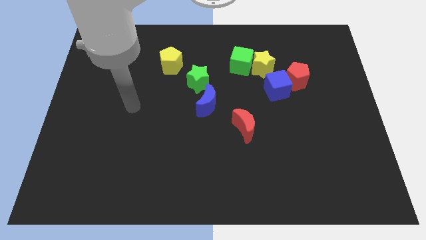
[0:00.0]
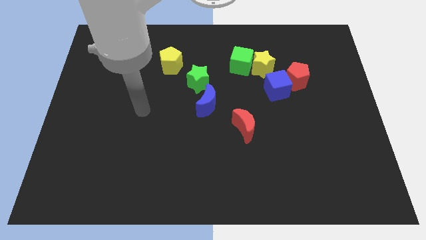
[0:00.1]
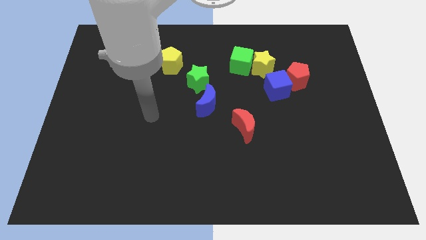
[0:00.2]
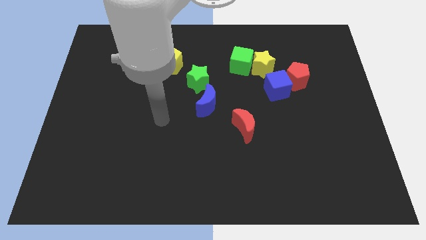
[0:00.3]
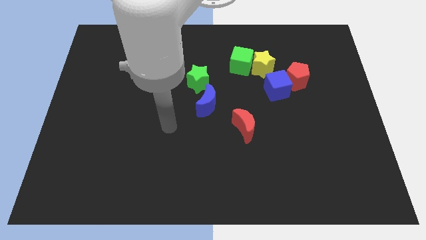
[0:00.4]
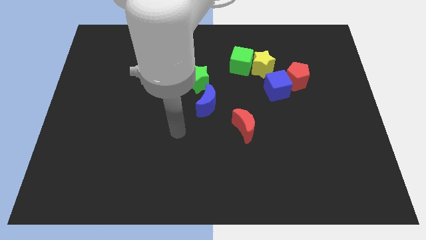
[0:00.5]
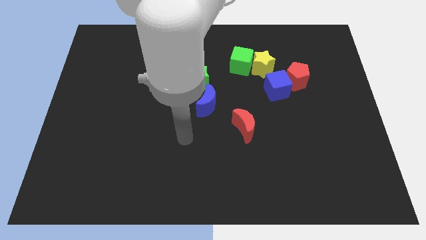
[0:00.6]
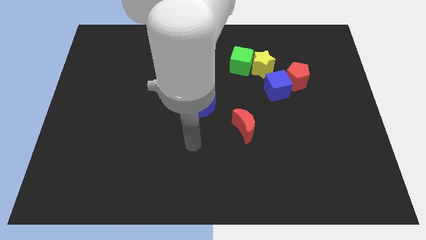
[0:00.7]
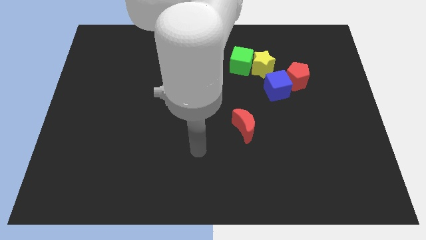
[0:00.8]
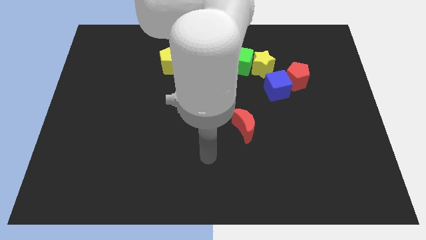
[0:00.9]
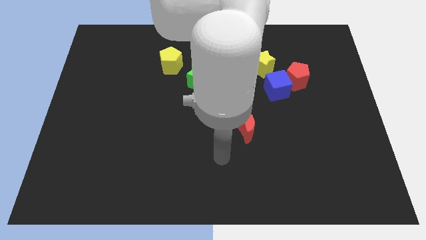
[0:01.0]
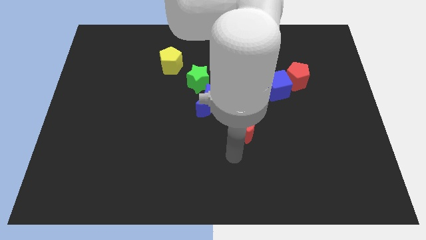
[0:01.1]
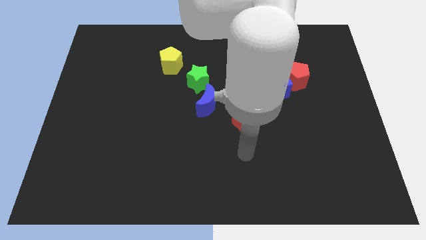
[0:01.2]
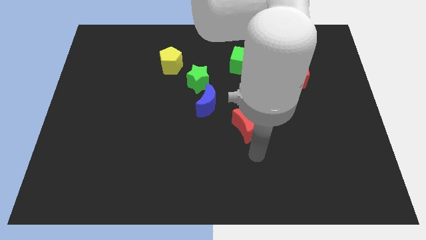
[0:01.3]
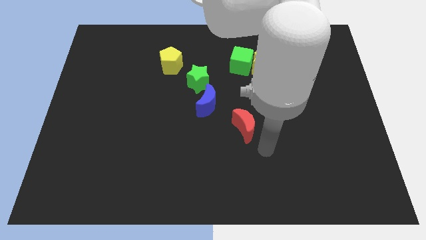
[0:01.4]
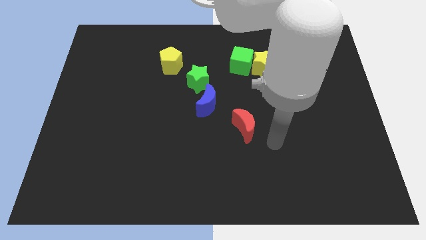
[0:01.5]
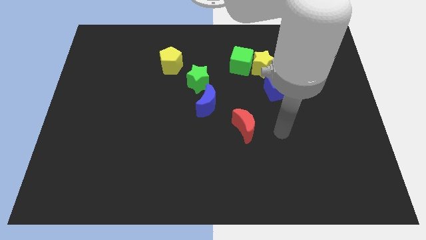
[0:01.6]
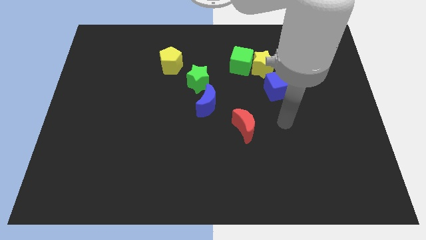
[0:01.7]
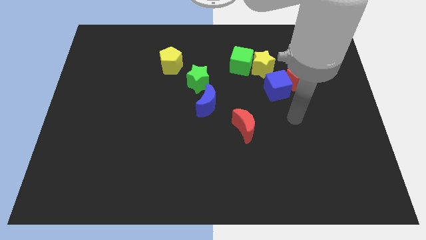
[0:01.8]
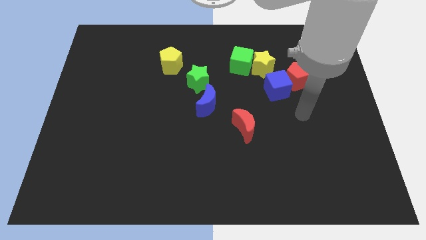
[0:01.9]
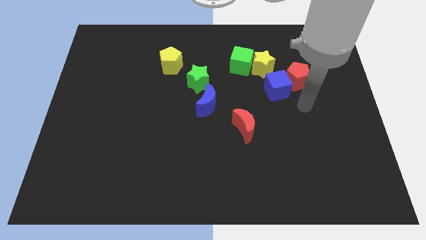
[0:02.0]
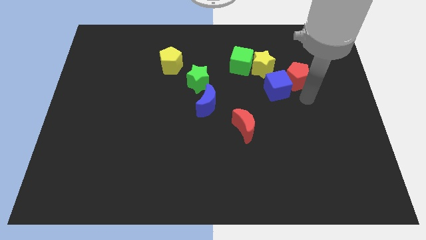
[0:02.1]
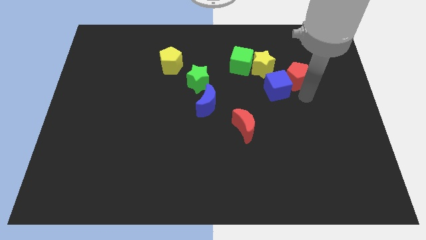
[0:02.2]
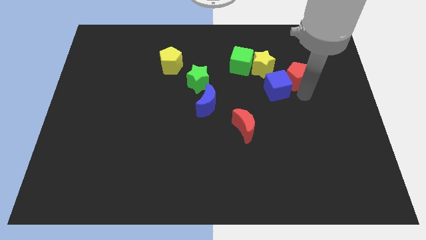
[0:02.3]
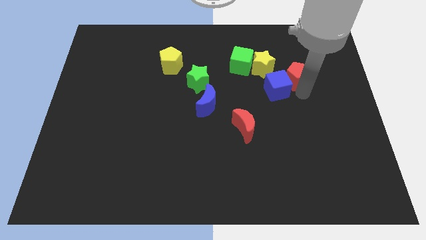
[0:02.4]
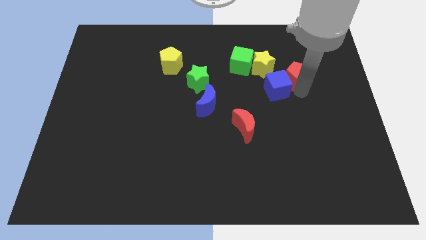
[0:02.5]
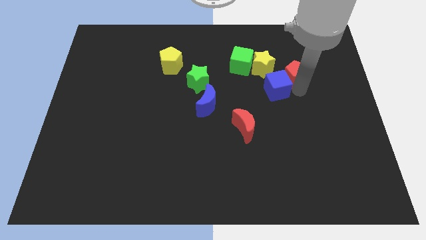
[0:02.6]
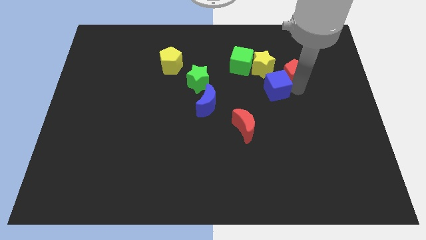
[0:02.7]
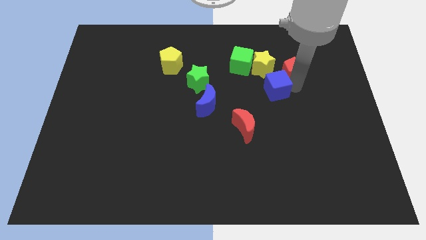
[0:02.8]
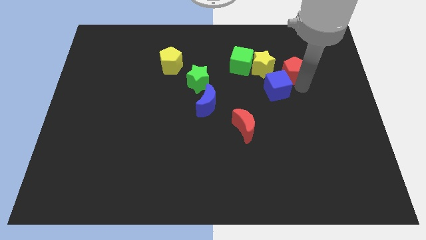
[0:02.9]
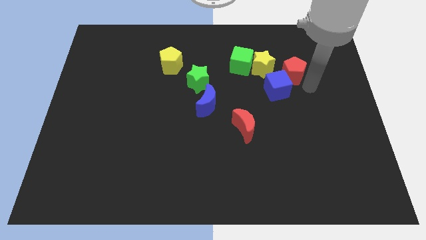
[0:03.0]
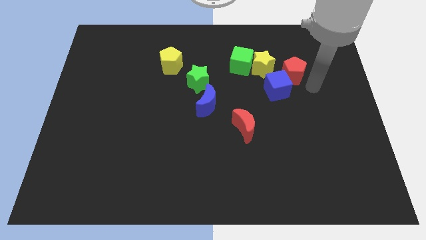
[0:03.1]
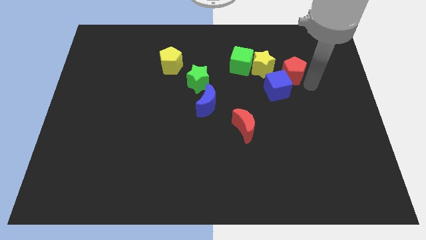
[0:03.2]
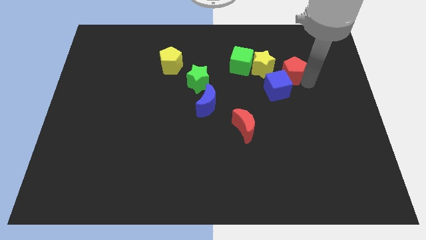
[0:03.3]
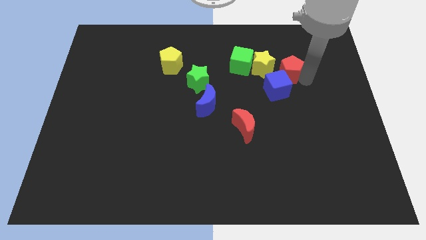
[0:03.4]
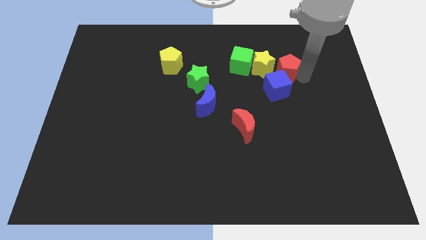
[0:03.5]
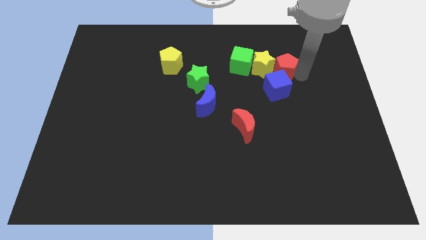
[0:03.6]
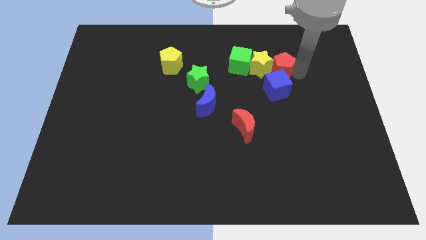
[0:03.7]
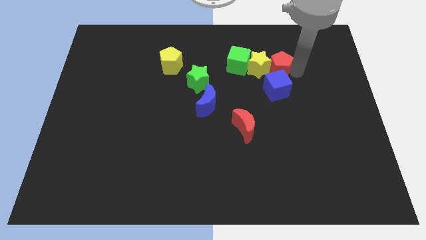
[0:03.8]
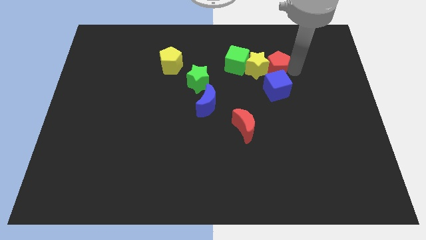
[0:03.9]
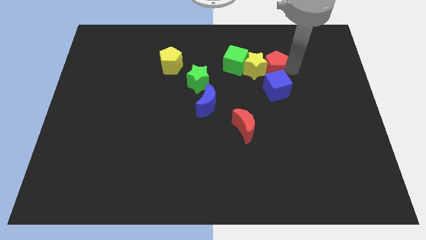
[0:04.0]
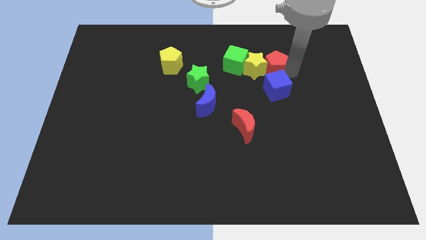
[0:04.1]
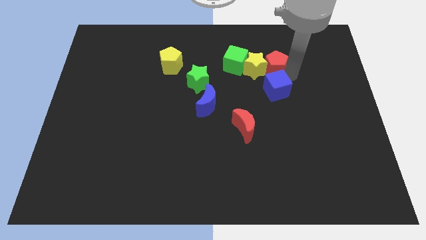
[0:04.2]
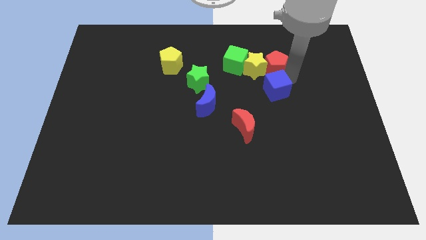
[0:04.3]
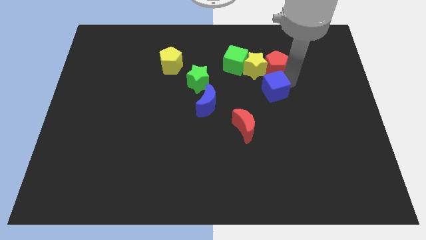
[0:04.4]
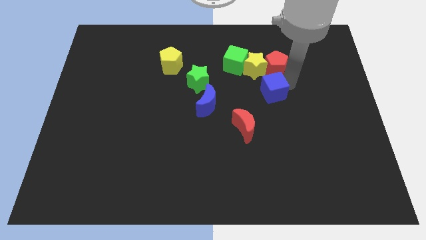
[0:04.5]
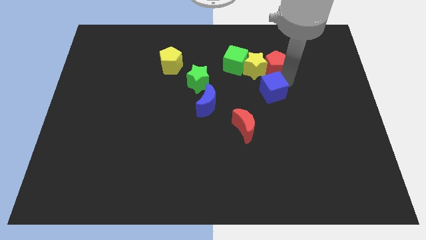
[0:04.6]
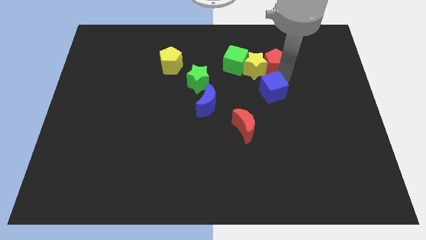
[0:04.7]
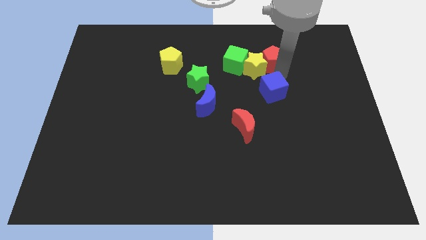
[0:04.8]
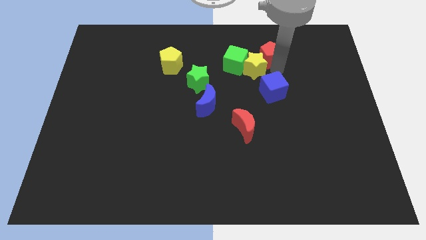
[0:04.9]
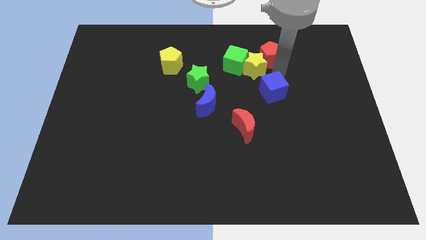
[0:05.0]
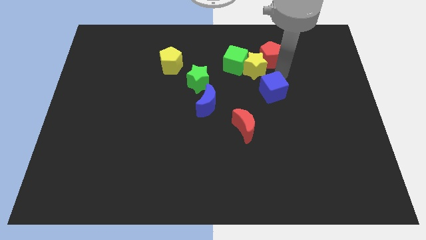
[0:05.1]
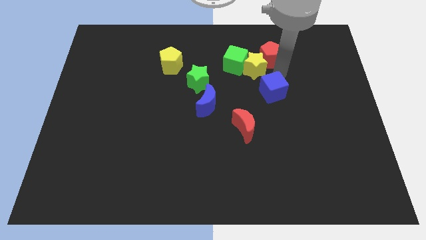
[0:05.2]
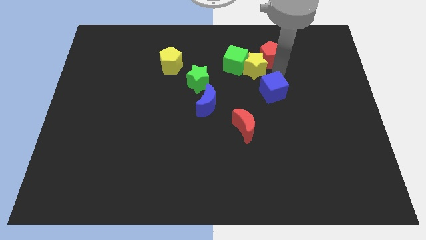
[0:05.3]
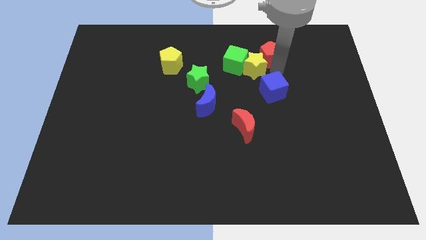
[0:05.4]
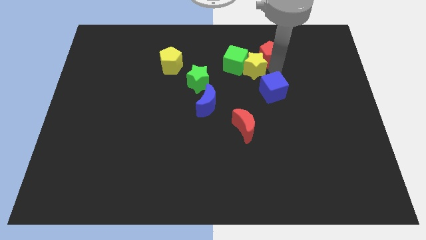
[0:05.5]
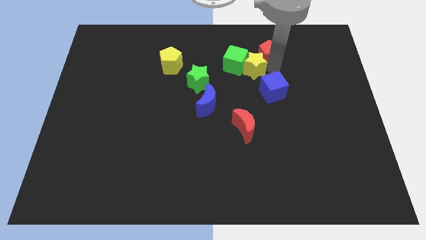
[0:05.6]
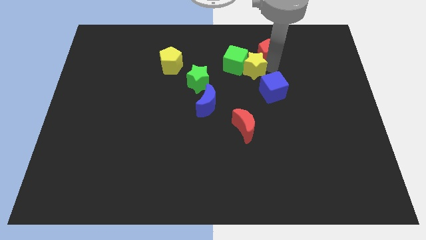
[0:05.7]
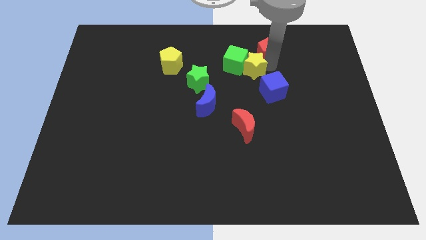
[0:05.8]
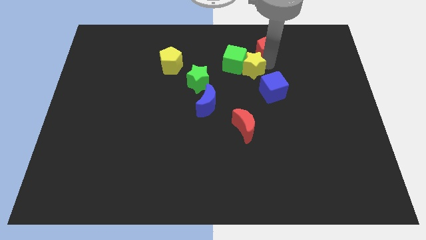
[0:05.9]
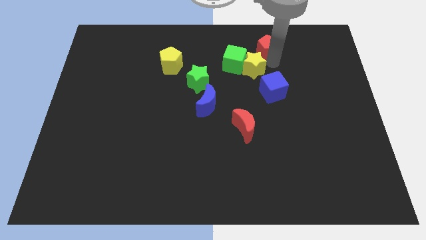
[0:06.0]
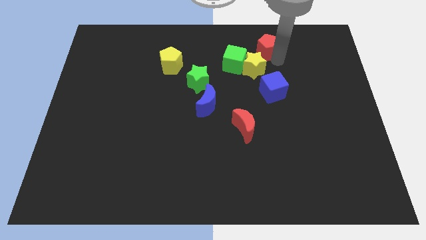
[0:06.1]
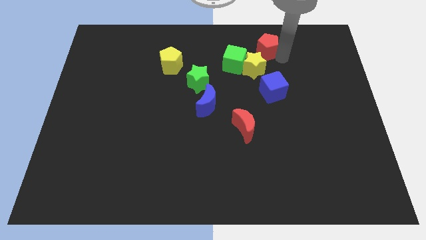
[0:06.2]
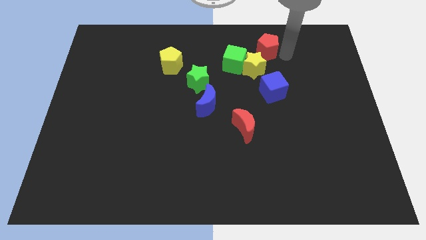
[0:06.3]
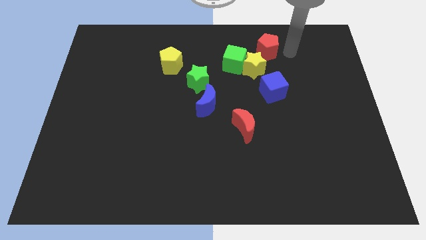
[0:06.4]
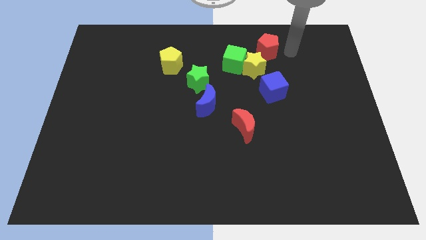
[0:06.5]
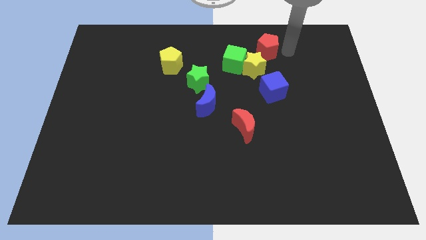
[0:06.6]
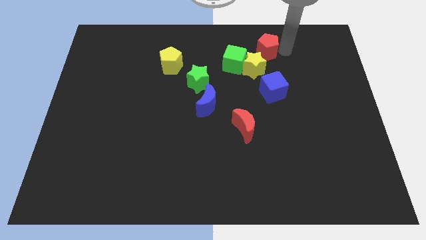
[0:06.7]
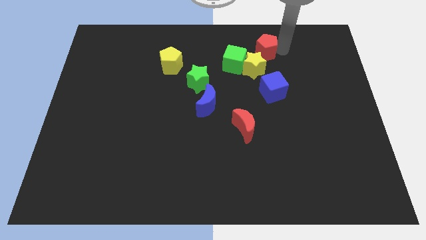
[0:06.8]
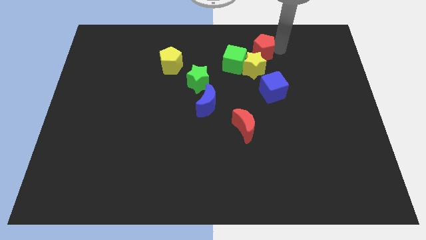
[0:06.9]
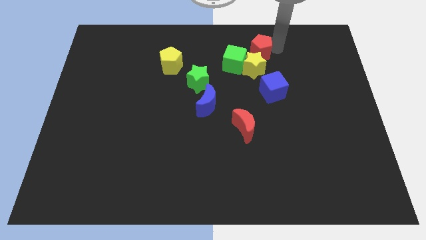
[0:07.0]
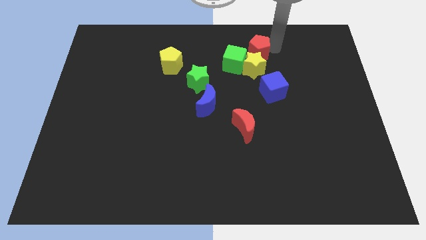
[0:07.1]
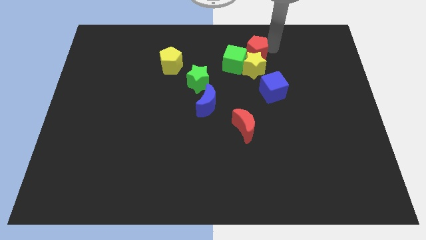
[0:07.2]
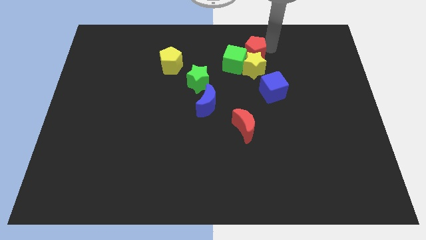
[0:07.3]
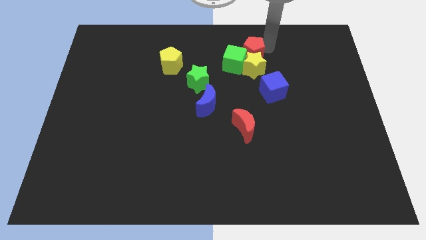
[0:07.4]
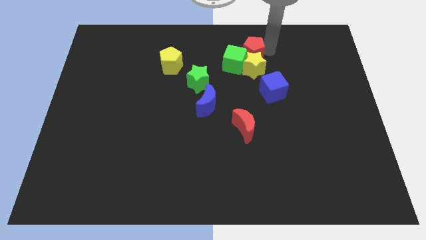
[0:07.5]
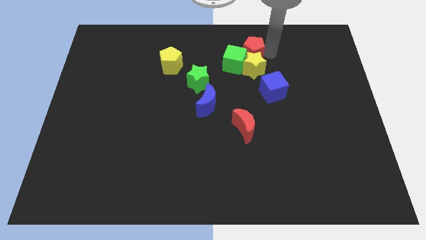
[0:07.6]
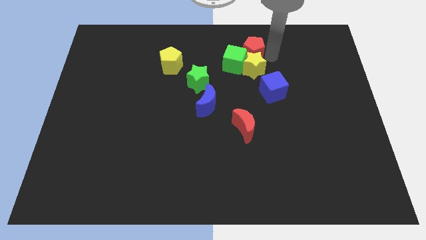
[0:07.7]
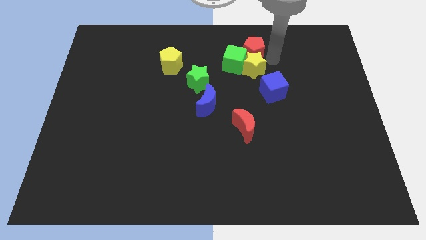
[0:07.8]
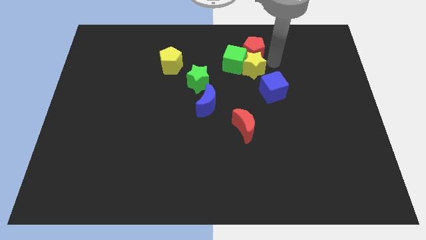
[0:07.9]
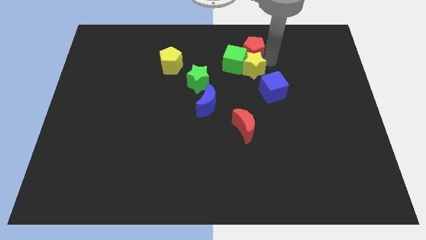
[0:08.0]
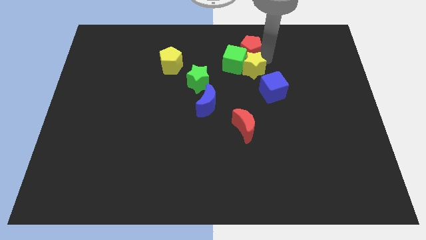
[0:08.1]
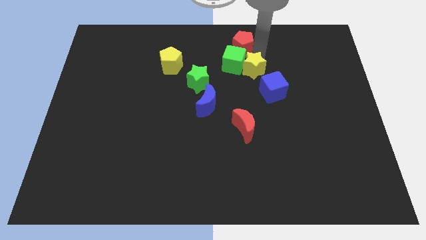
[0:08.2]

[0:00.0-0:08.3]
put the red pentagon to the towards your base
